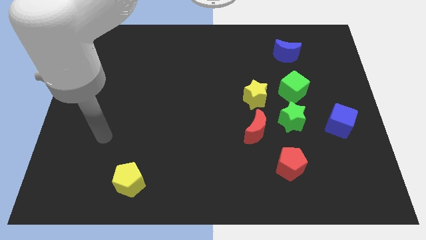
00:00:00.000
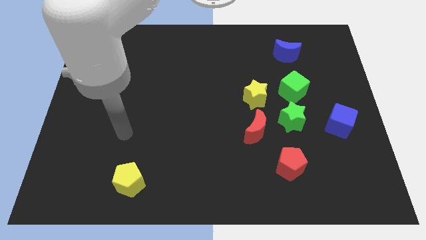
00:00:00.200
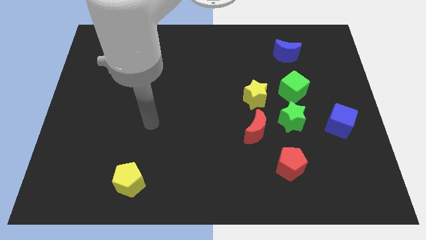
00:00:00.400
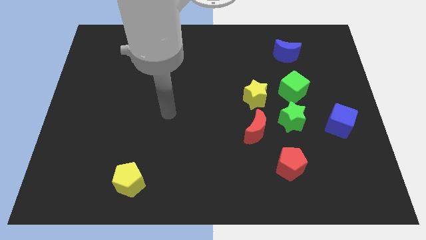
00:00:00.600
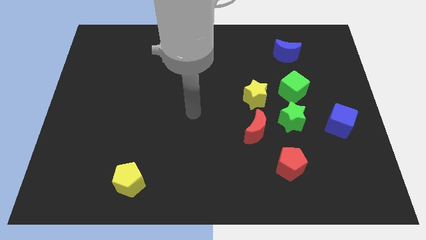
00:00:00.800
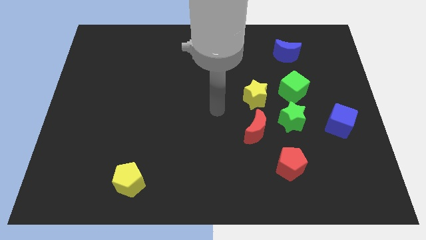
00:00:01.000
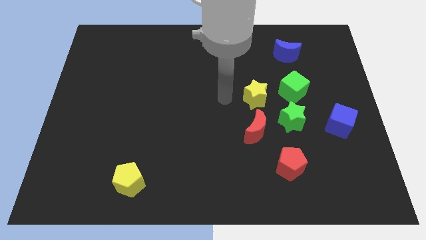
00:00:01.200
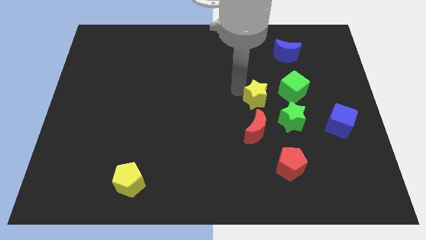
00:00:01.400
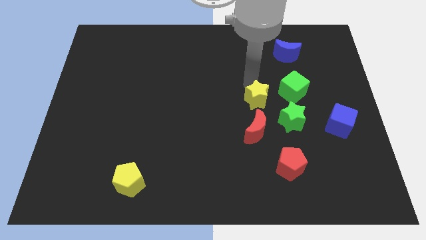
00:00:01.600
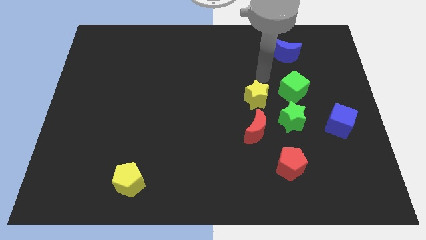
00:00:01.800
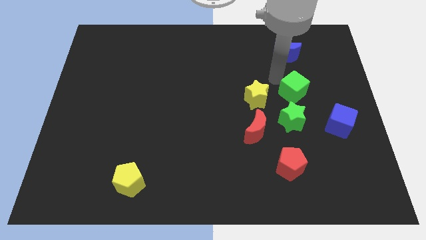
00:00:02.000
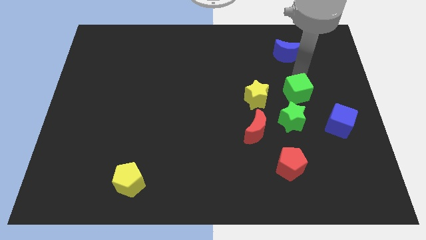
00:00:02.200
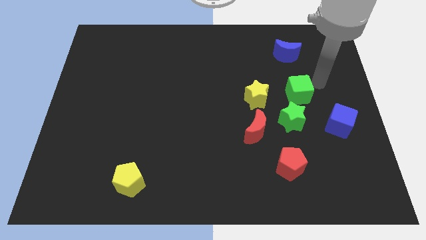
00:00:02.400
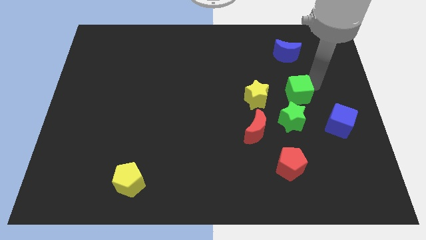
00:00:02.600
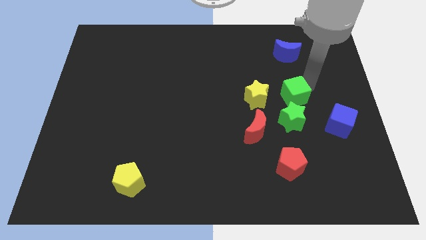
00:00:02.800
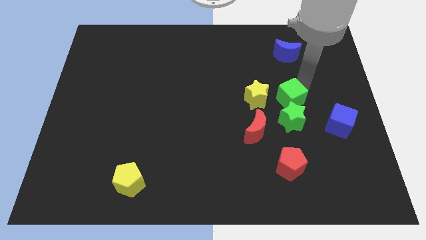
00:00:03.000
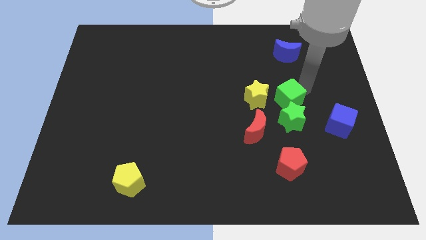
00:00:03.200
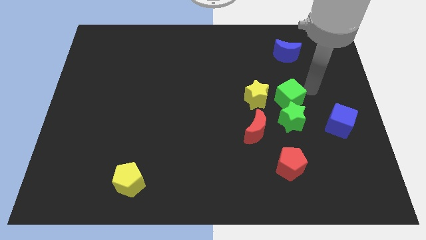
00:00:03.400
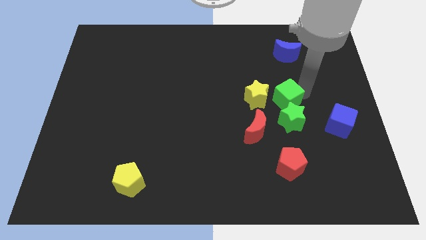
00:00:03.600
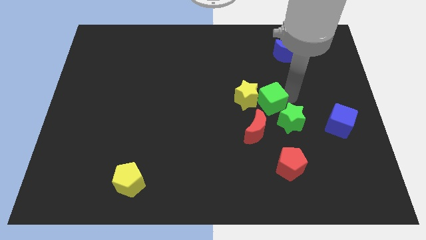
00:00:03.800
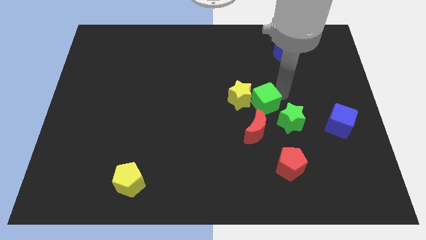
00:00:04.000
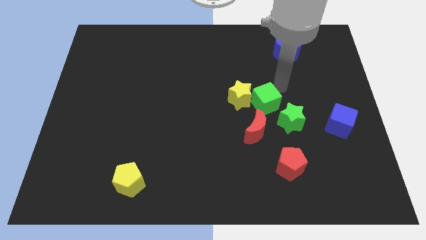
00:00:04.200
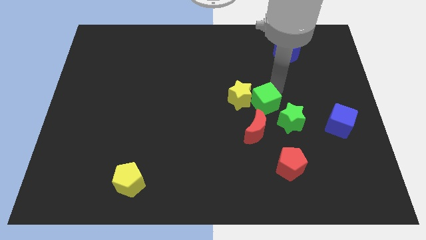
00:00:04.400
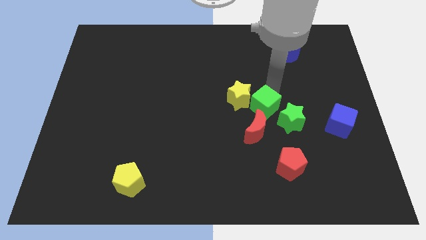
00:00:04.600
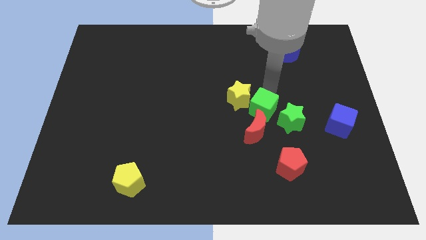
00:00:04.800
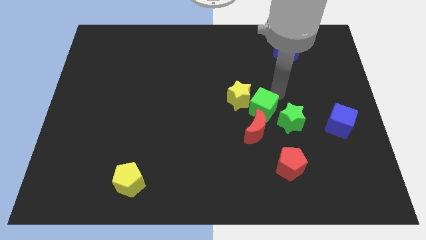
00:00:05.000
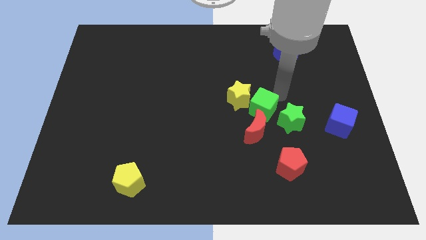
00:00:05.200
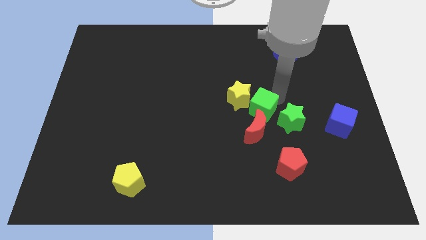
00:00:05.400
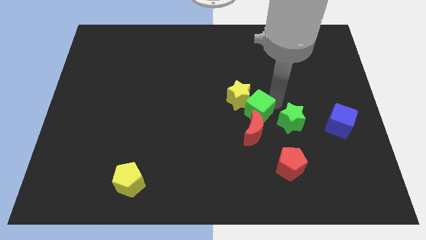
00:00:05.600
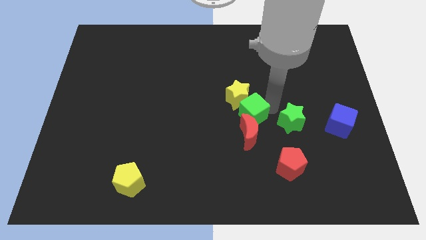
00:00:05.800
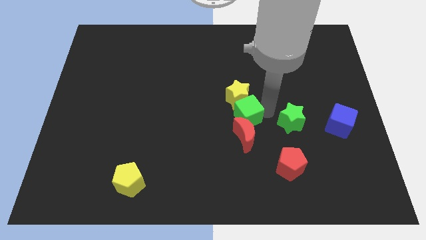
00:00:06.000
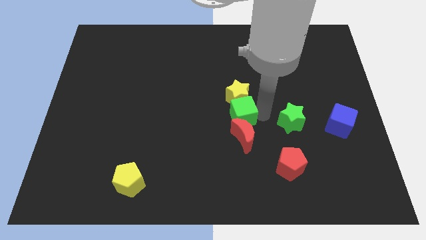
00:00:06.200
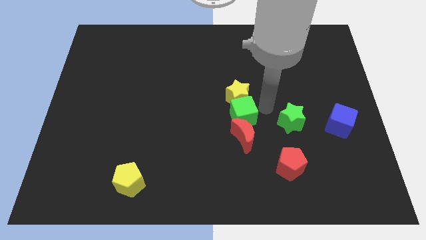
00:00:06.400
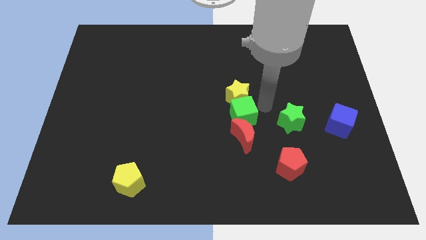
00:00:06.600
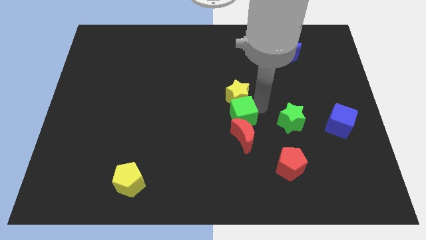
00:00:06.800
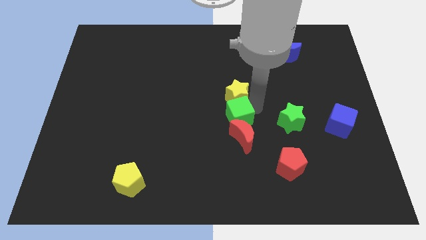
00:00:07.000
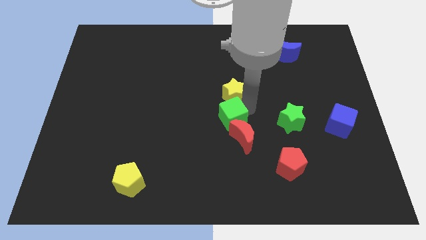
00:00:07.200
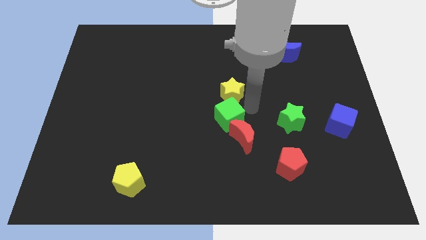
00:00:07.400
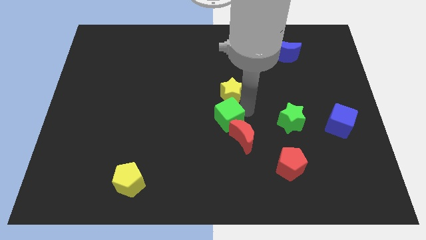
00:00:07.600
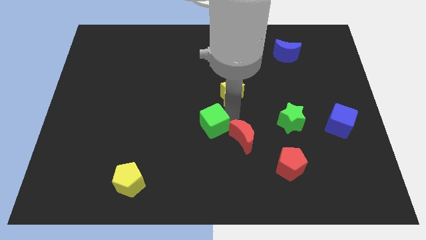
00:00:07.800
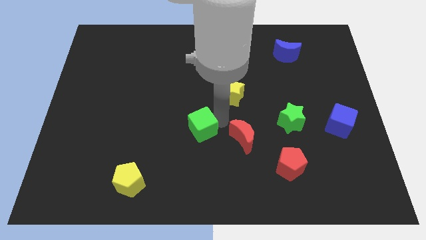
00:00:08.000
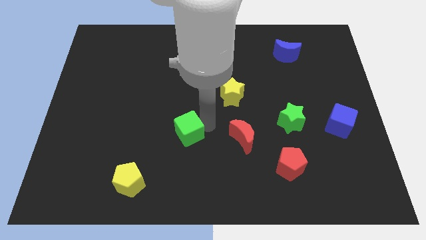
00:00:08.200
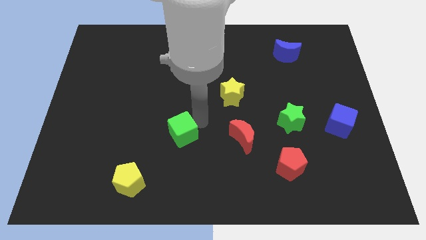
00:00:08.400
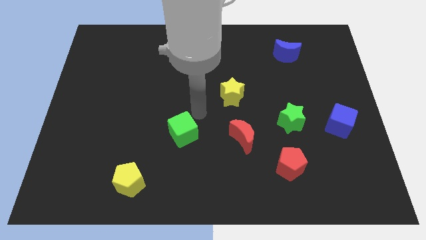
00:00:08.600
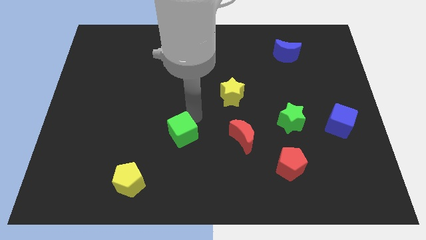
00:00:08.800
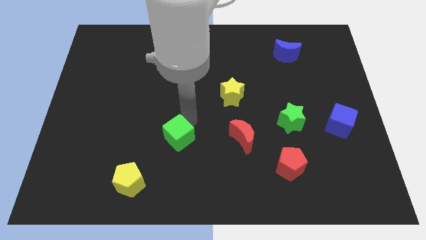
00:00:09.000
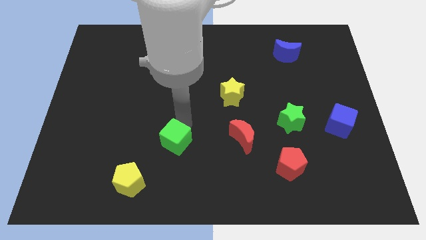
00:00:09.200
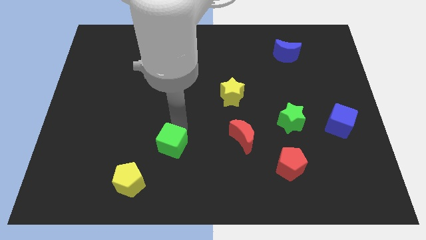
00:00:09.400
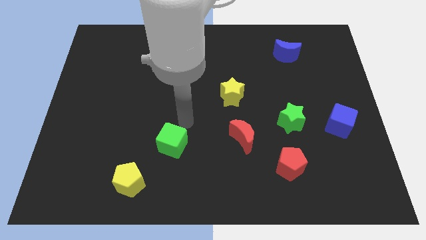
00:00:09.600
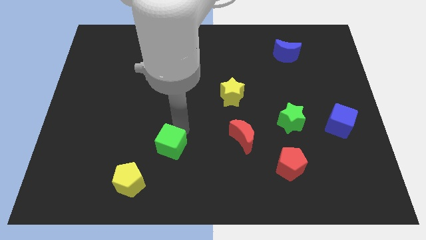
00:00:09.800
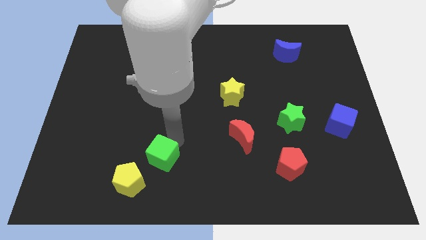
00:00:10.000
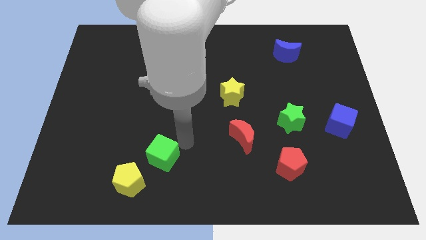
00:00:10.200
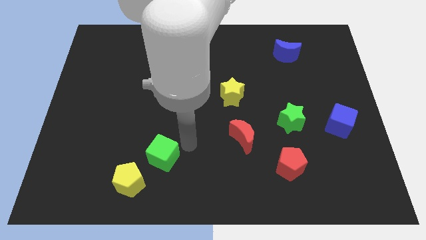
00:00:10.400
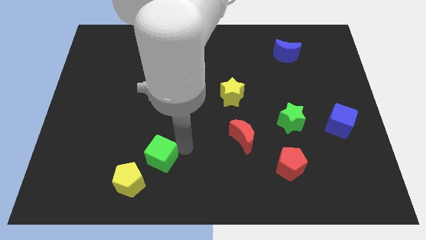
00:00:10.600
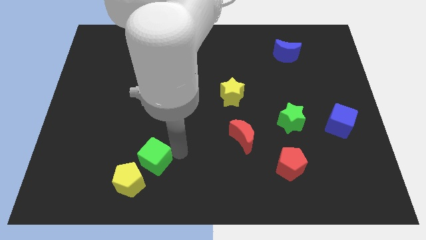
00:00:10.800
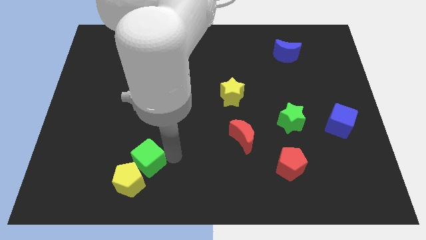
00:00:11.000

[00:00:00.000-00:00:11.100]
slide the green cube next to the yellow pentagon

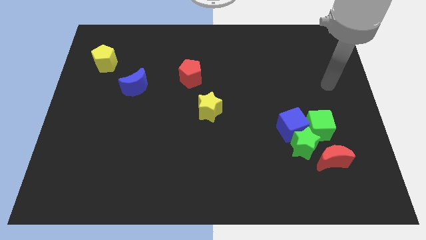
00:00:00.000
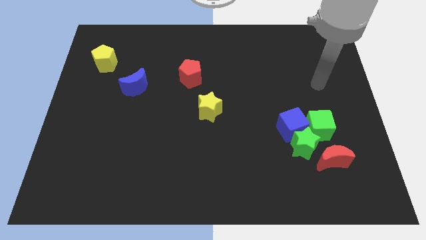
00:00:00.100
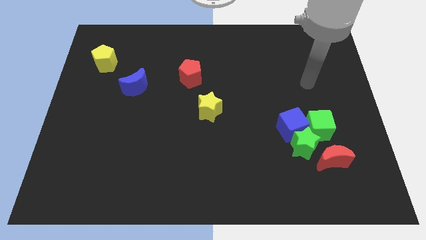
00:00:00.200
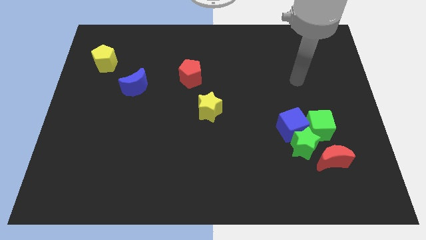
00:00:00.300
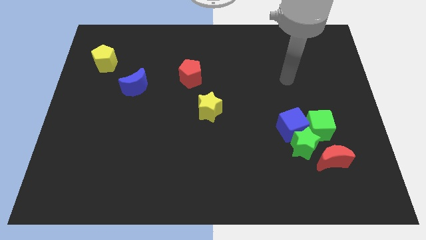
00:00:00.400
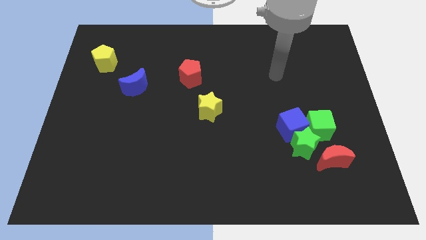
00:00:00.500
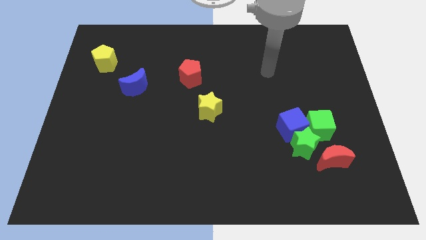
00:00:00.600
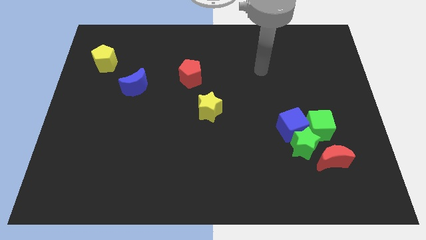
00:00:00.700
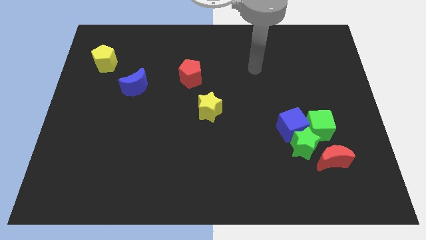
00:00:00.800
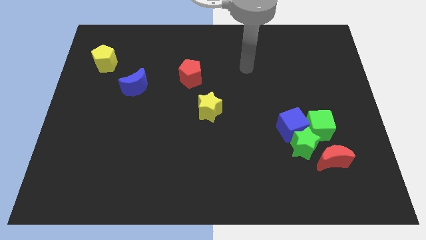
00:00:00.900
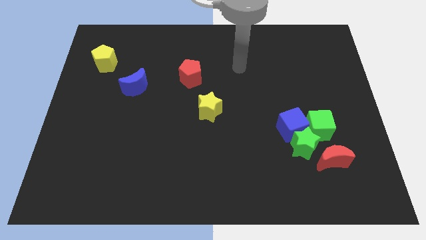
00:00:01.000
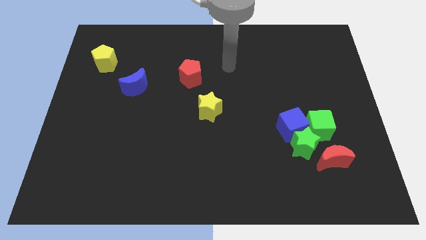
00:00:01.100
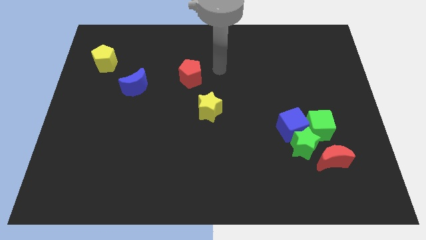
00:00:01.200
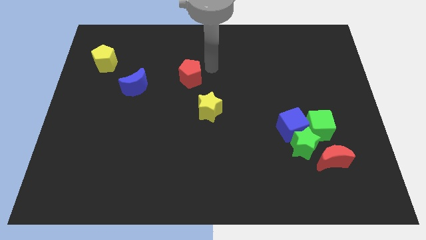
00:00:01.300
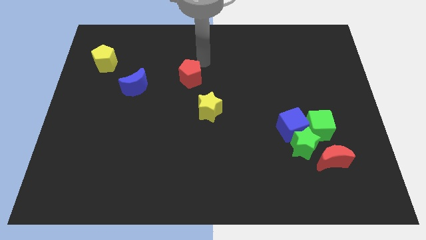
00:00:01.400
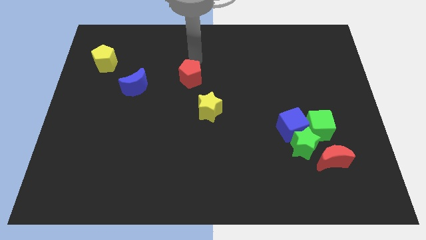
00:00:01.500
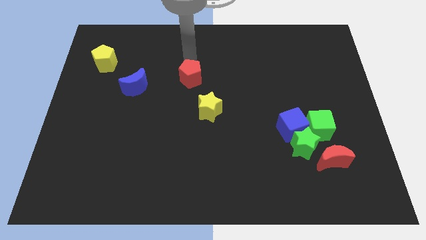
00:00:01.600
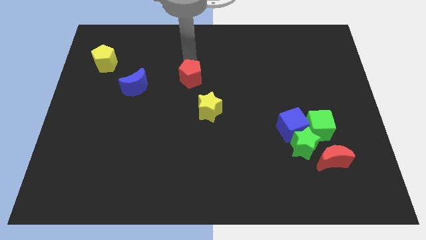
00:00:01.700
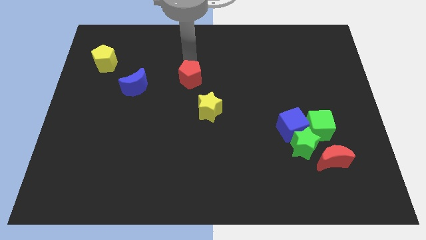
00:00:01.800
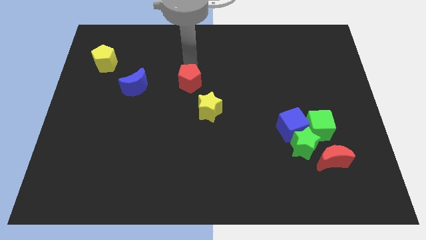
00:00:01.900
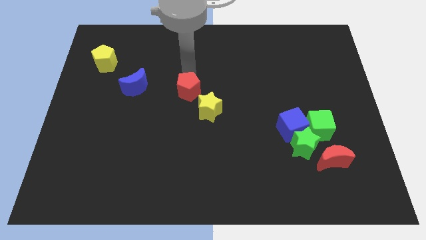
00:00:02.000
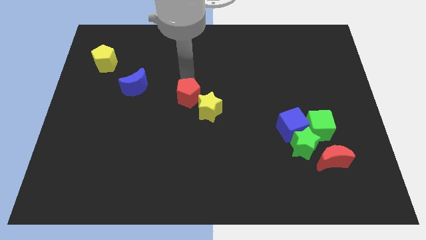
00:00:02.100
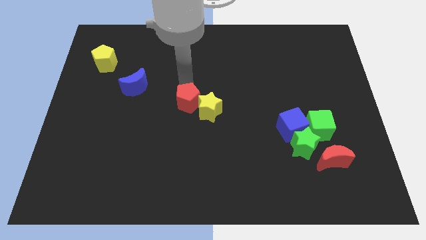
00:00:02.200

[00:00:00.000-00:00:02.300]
push the red pentagon towards the yellow star
